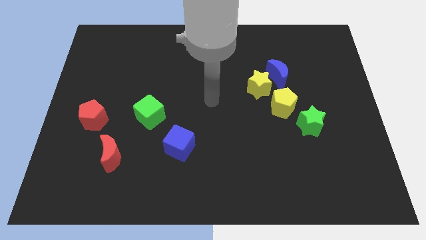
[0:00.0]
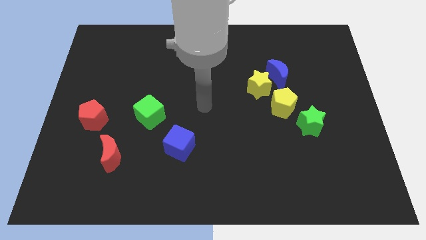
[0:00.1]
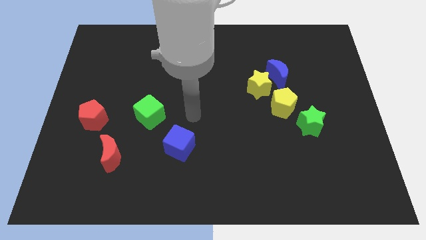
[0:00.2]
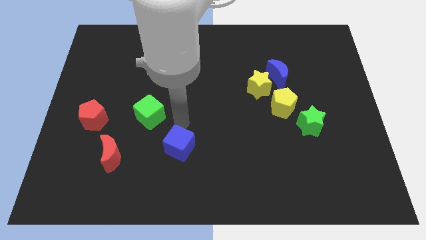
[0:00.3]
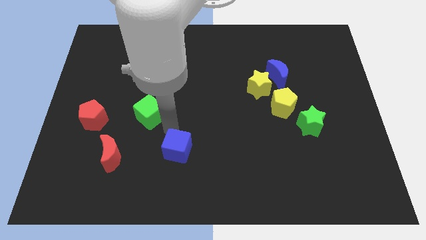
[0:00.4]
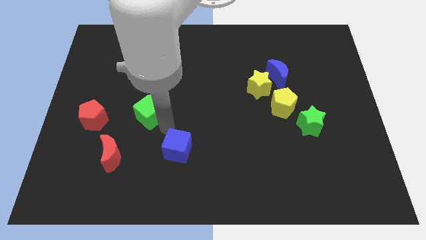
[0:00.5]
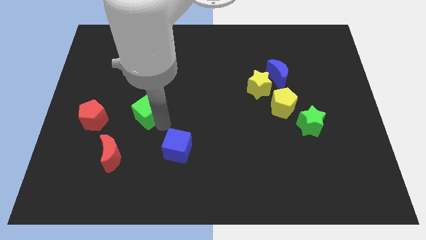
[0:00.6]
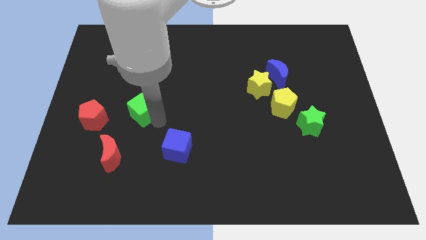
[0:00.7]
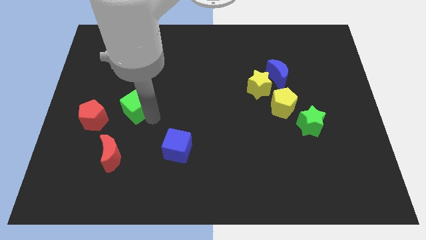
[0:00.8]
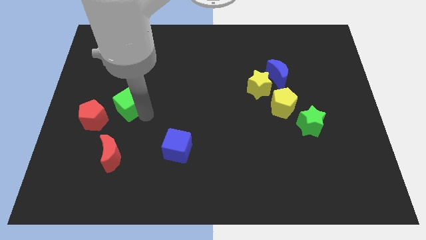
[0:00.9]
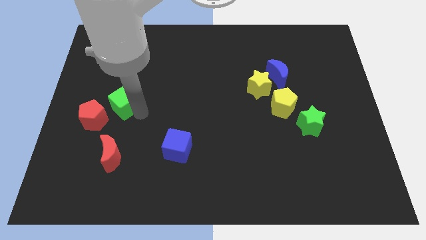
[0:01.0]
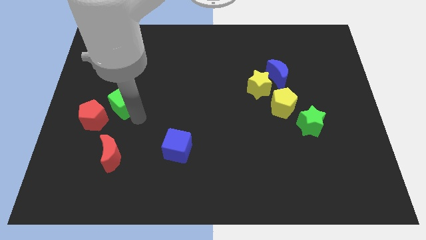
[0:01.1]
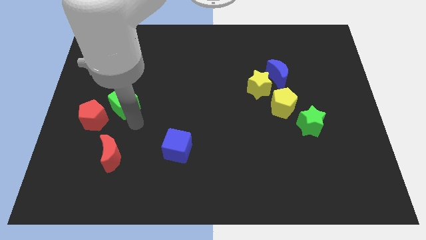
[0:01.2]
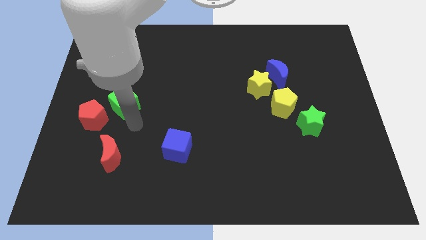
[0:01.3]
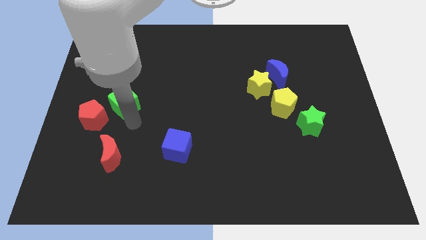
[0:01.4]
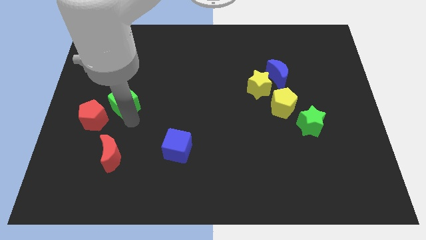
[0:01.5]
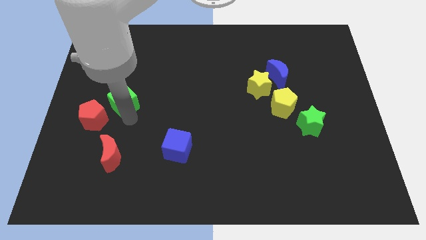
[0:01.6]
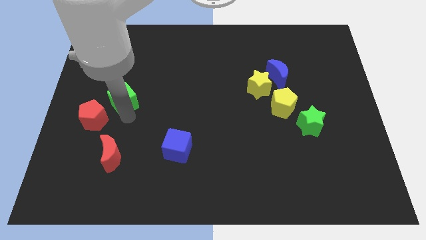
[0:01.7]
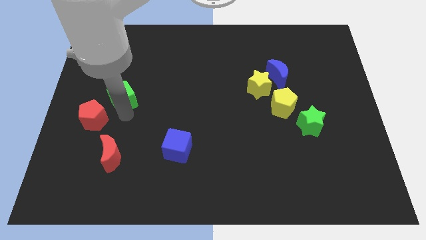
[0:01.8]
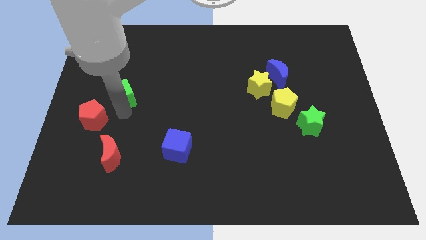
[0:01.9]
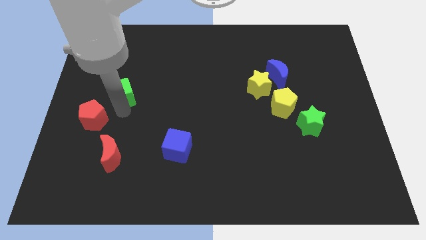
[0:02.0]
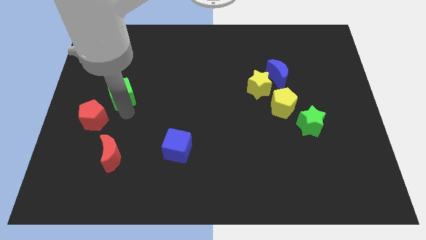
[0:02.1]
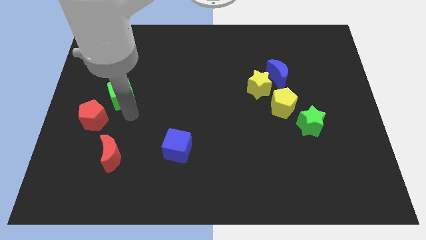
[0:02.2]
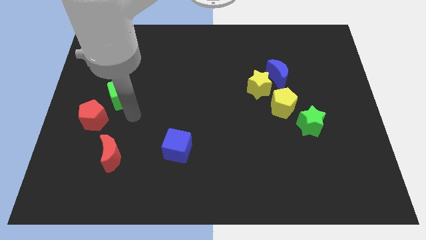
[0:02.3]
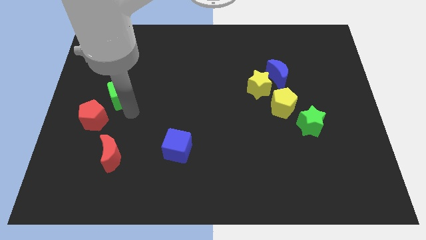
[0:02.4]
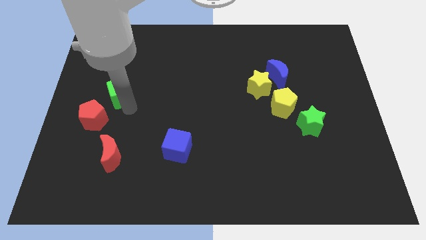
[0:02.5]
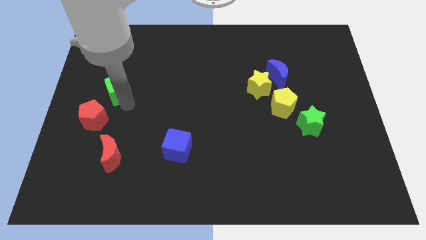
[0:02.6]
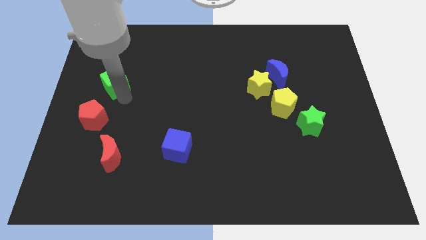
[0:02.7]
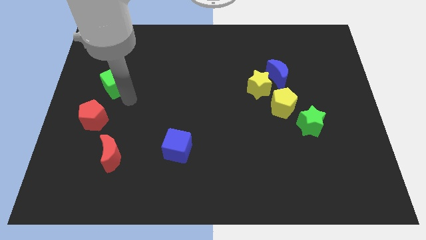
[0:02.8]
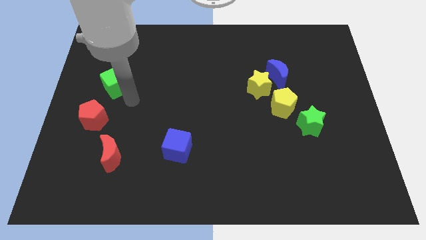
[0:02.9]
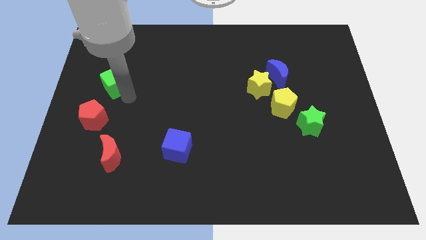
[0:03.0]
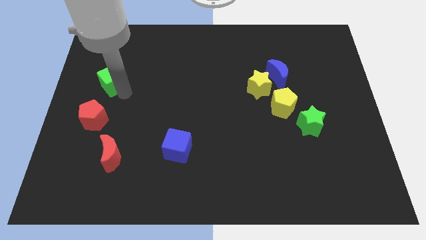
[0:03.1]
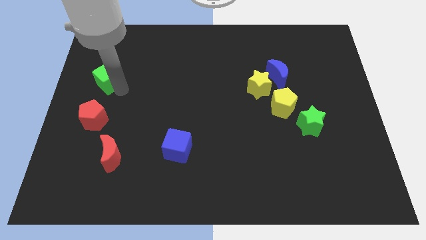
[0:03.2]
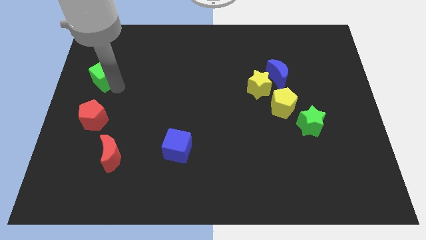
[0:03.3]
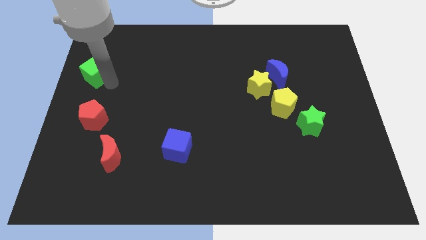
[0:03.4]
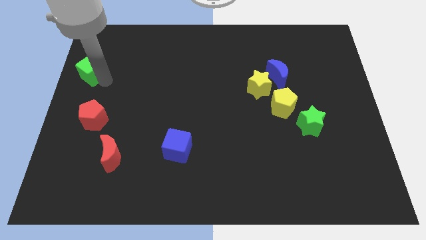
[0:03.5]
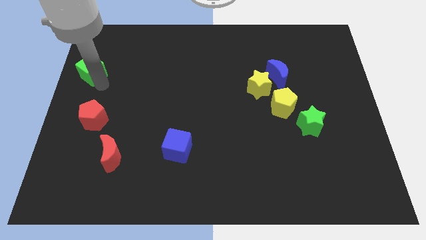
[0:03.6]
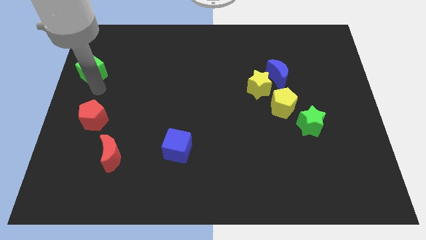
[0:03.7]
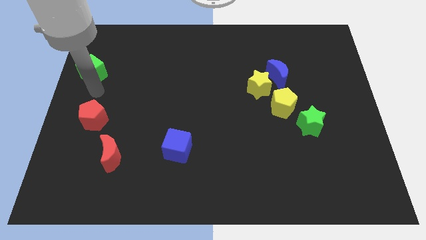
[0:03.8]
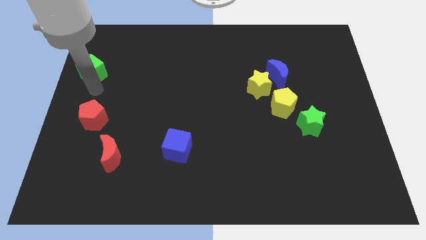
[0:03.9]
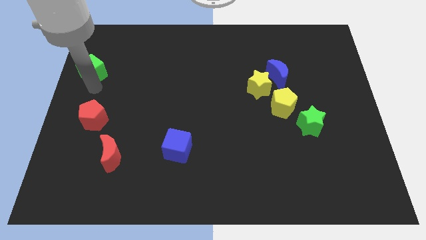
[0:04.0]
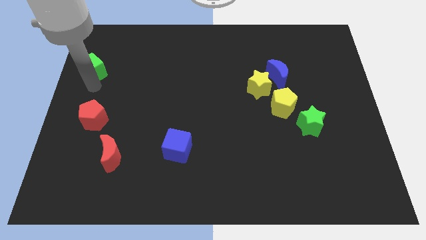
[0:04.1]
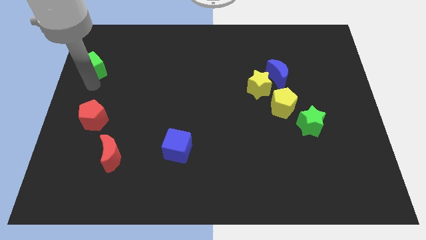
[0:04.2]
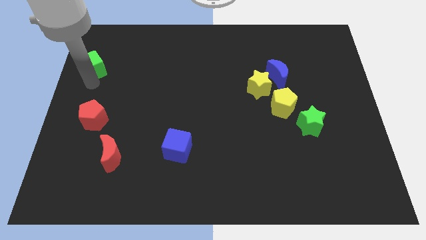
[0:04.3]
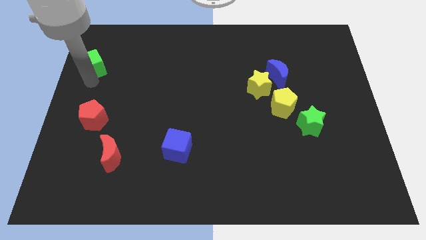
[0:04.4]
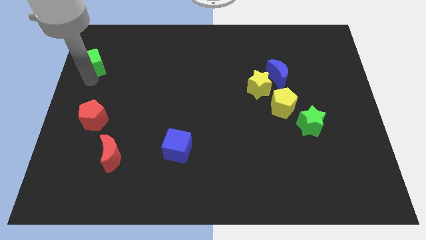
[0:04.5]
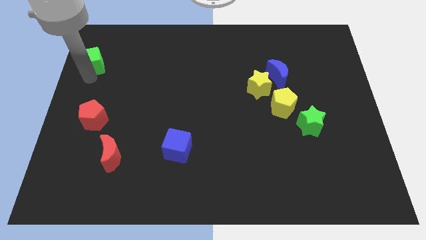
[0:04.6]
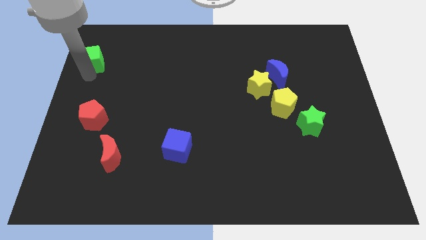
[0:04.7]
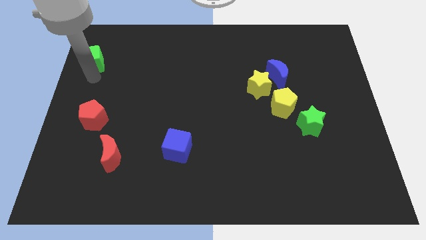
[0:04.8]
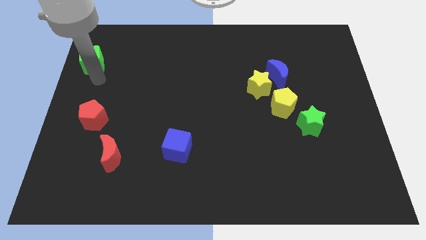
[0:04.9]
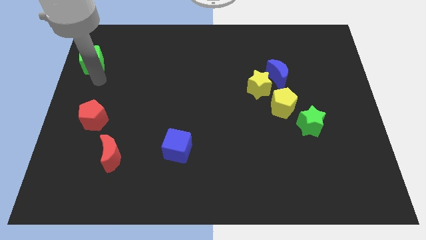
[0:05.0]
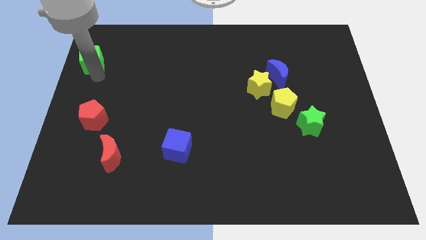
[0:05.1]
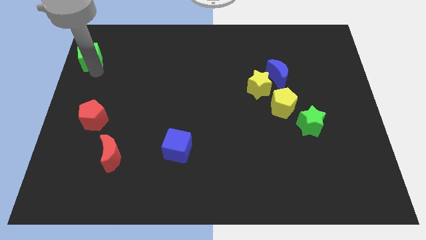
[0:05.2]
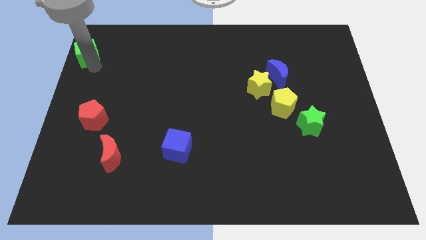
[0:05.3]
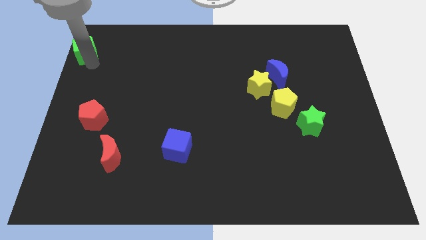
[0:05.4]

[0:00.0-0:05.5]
push the green cube to the upper left corner

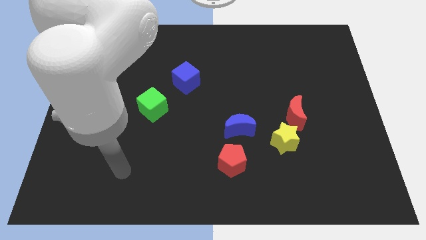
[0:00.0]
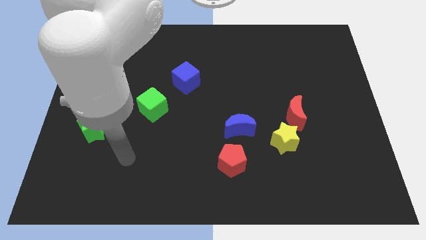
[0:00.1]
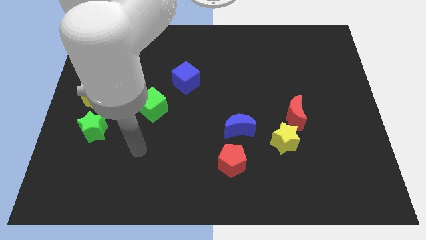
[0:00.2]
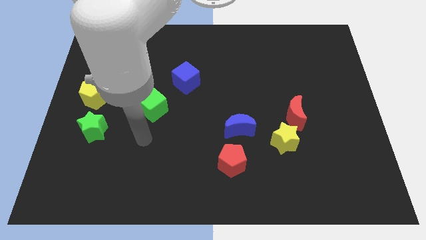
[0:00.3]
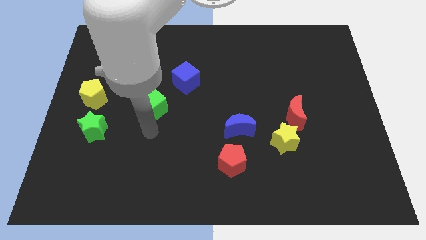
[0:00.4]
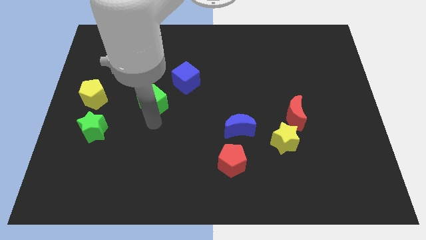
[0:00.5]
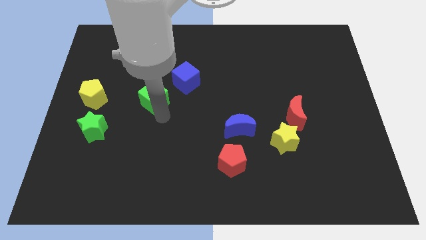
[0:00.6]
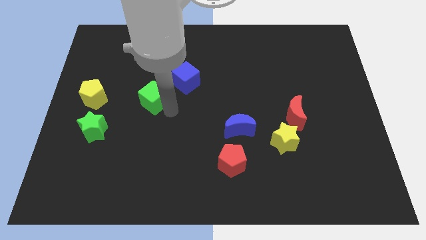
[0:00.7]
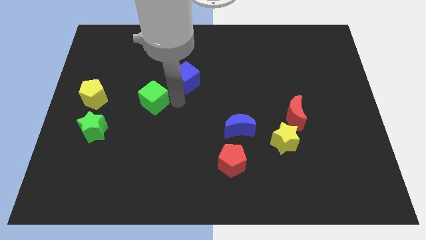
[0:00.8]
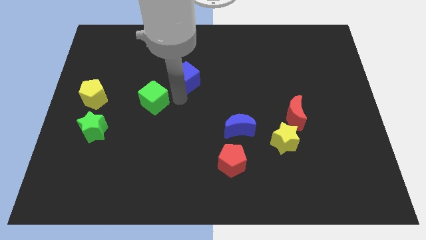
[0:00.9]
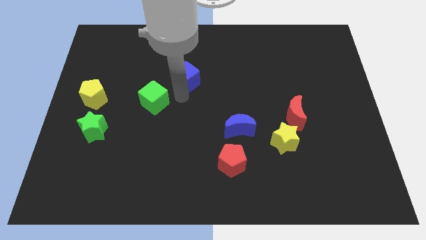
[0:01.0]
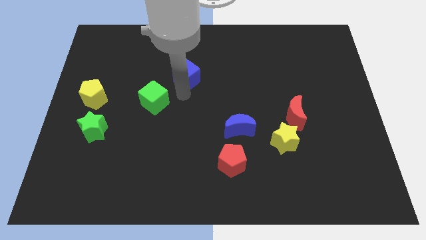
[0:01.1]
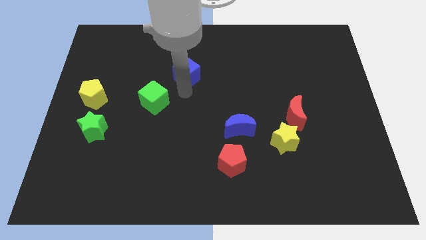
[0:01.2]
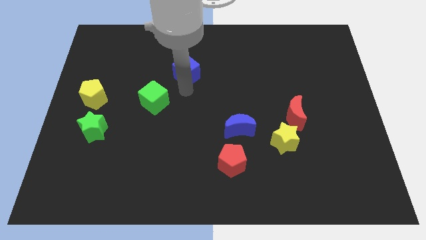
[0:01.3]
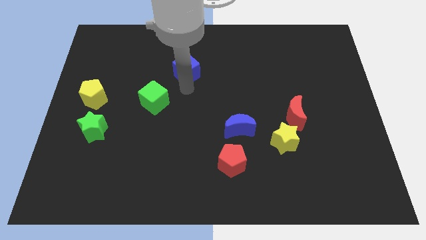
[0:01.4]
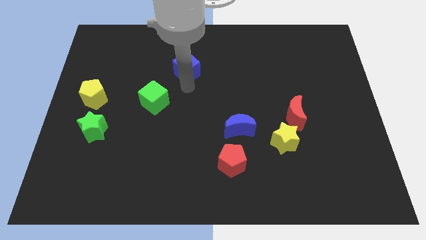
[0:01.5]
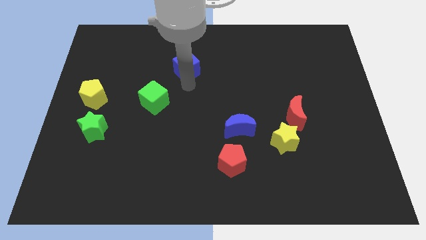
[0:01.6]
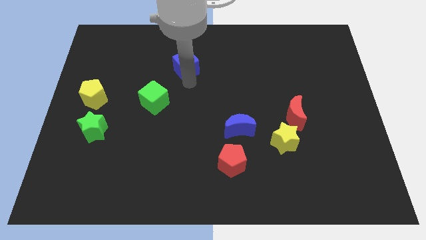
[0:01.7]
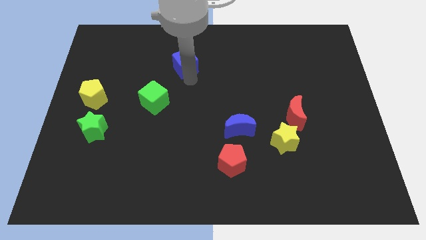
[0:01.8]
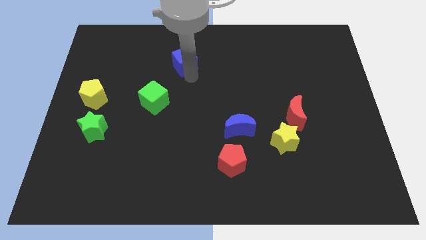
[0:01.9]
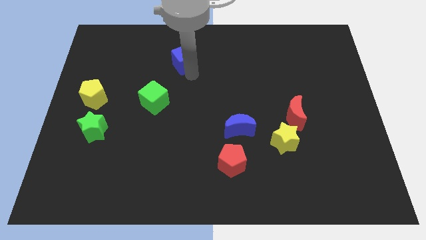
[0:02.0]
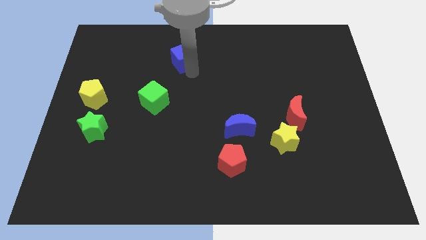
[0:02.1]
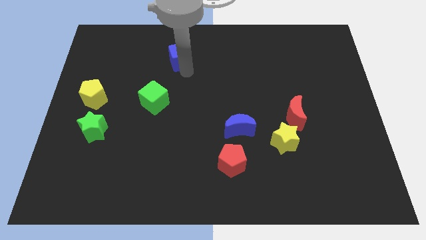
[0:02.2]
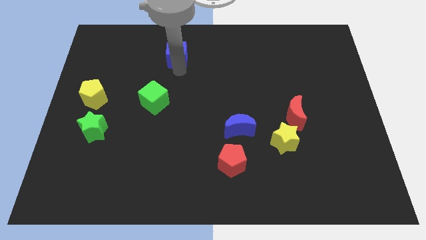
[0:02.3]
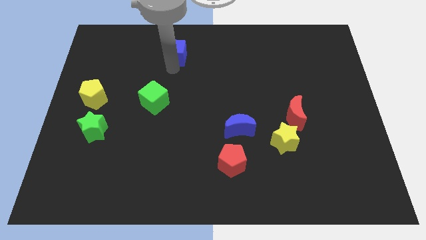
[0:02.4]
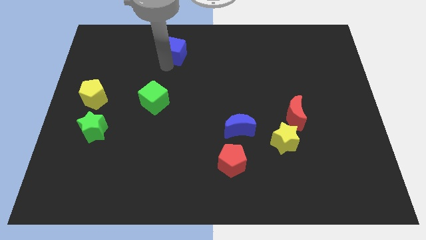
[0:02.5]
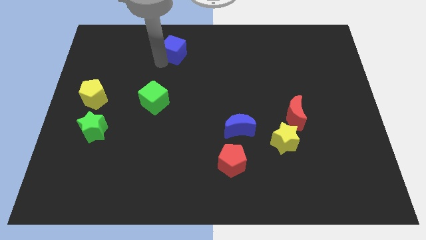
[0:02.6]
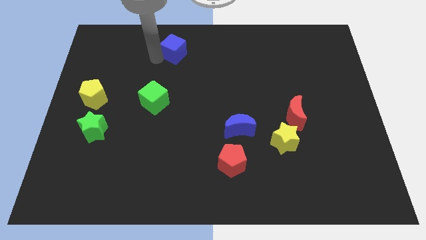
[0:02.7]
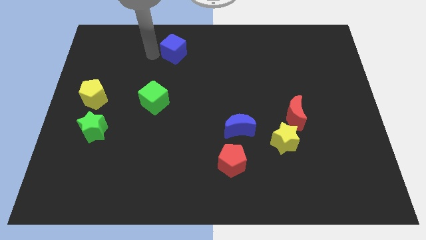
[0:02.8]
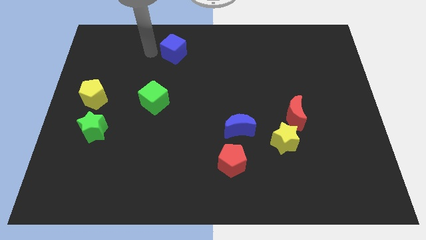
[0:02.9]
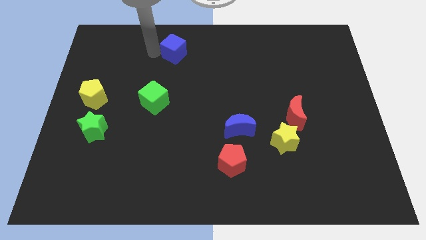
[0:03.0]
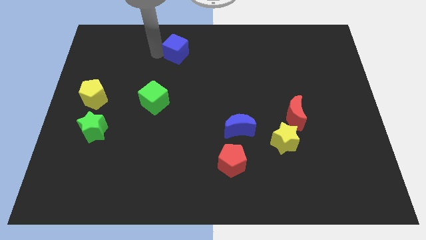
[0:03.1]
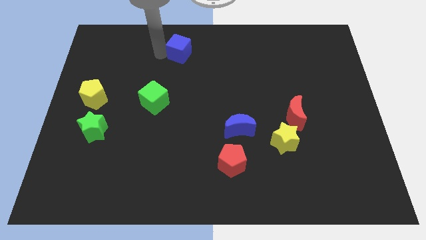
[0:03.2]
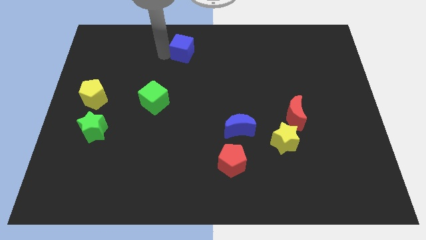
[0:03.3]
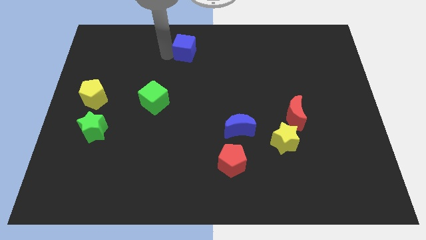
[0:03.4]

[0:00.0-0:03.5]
push the blue cube to the top
